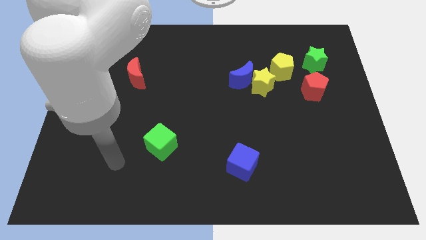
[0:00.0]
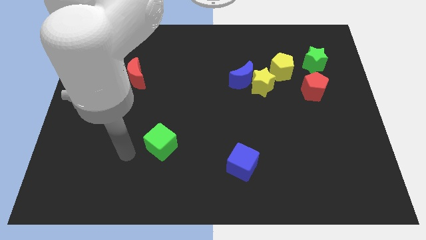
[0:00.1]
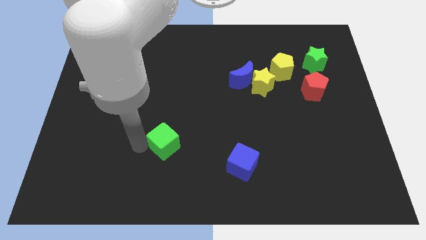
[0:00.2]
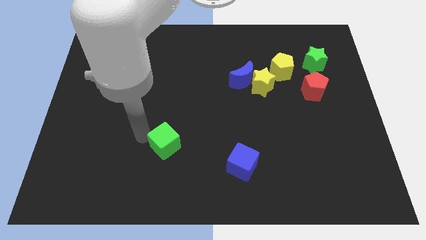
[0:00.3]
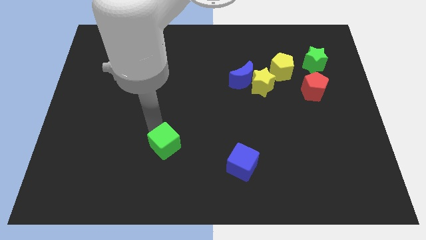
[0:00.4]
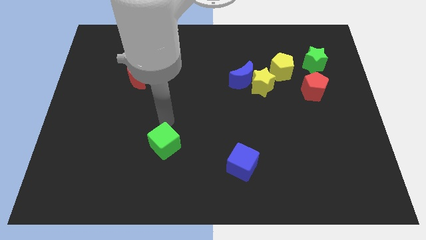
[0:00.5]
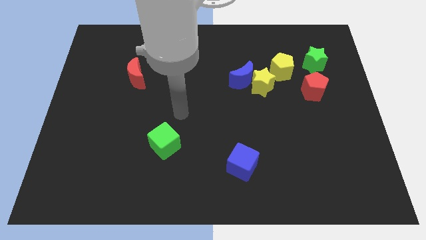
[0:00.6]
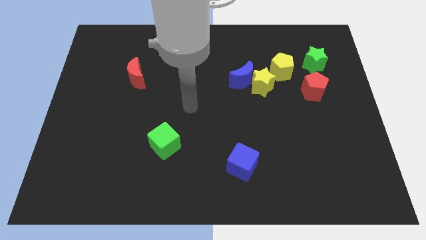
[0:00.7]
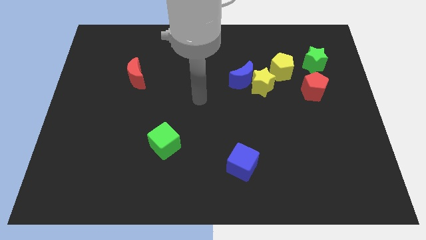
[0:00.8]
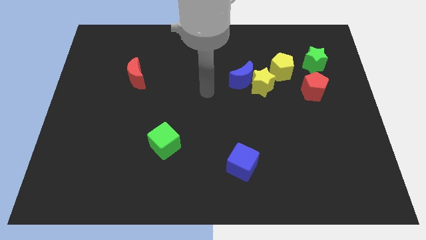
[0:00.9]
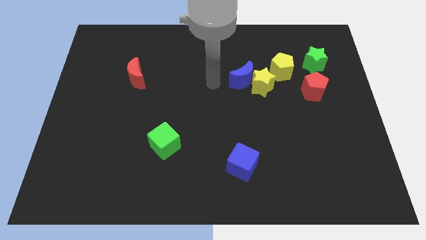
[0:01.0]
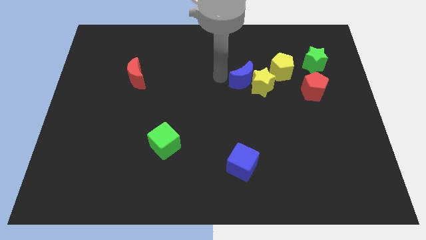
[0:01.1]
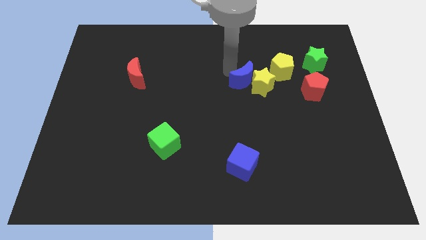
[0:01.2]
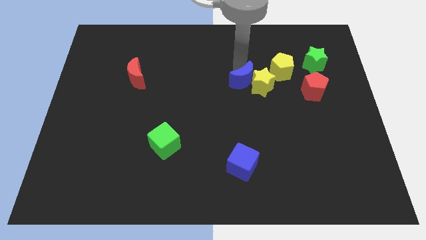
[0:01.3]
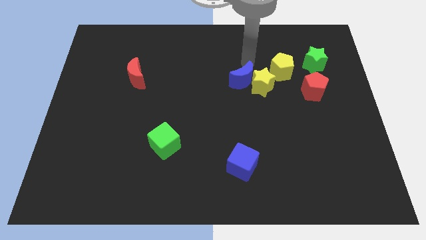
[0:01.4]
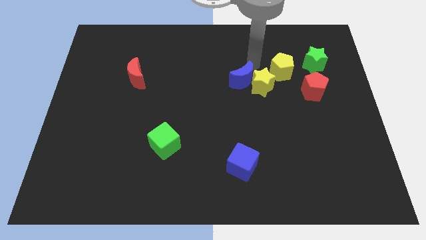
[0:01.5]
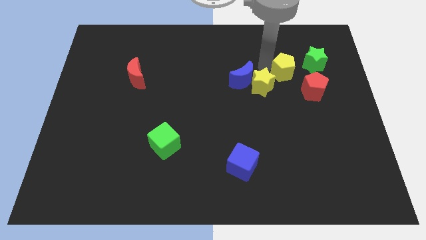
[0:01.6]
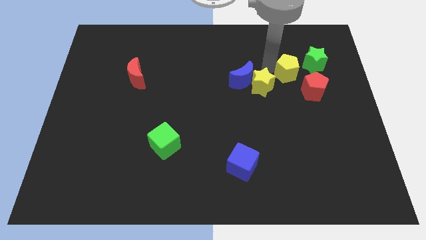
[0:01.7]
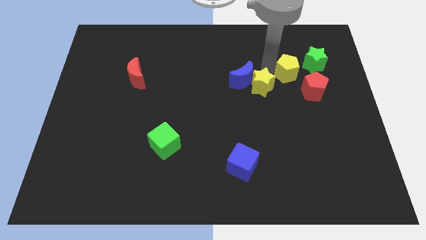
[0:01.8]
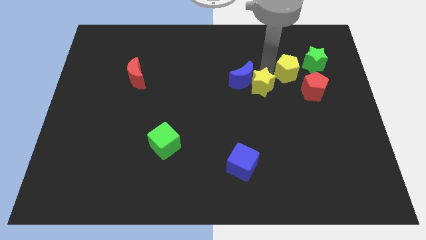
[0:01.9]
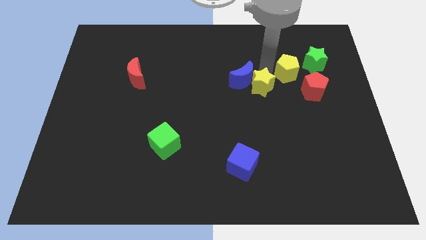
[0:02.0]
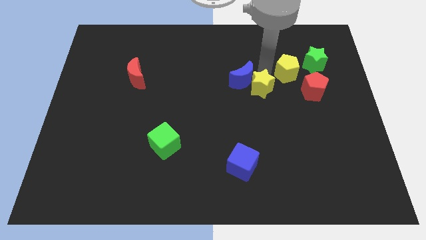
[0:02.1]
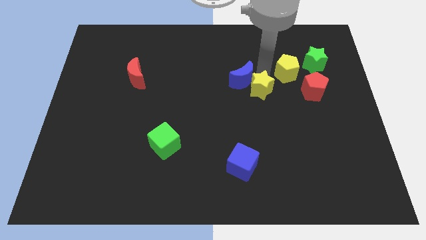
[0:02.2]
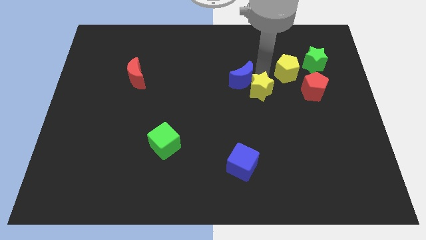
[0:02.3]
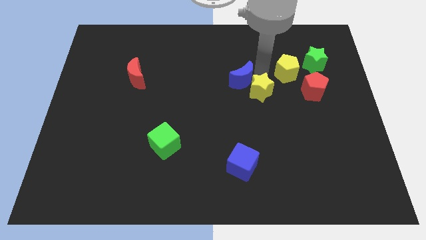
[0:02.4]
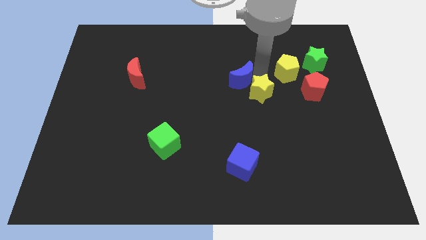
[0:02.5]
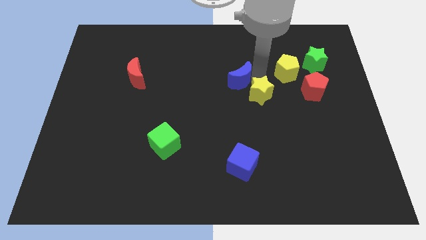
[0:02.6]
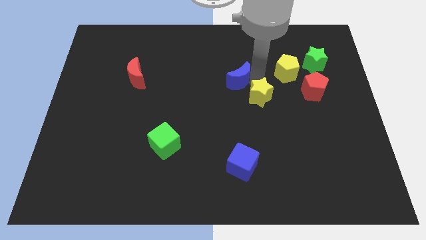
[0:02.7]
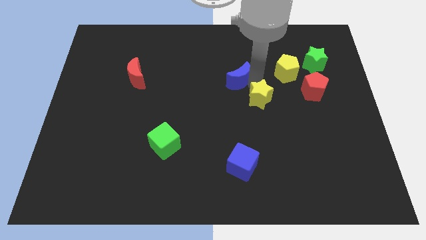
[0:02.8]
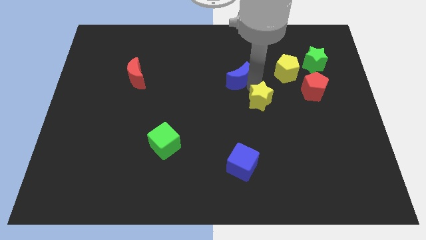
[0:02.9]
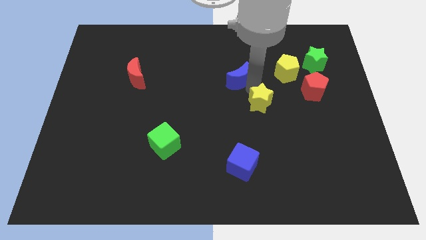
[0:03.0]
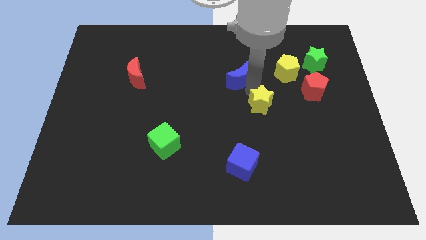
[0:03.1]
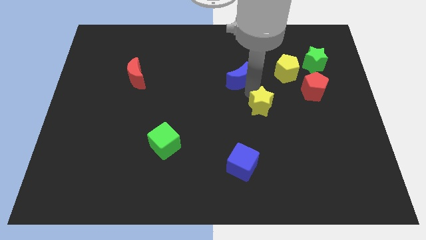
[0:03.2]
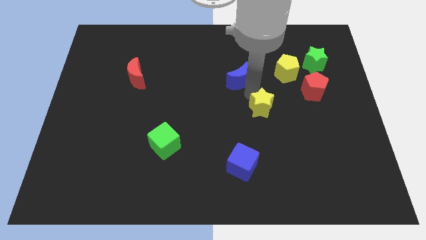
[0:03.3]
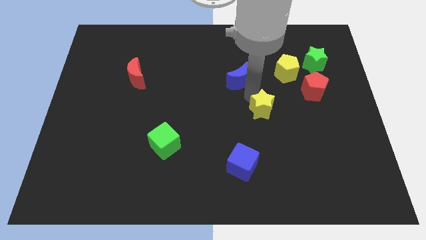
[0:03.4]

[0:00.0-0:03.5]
separate the yellow star from the blue moon and yellow pentagon

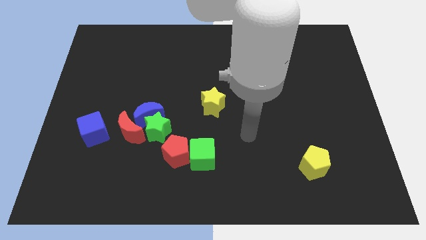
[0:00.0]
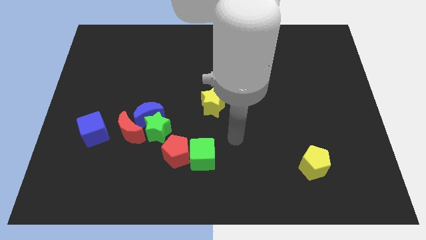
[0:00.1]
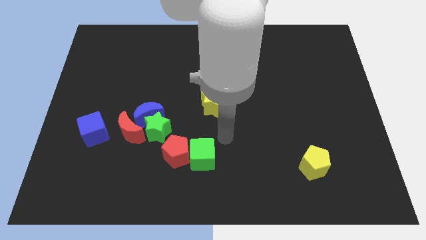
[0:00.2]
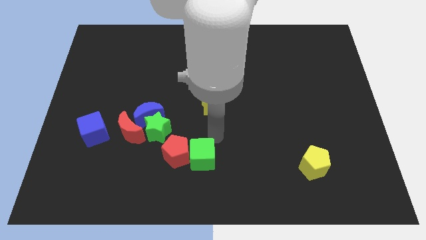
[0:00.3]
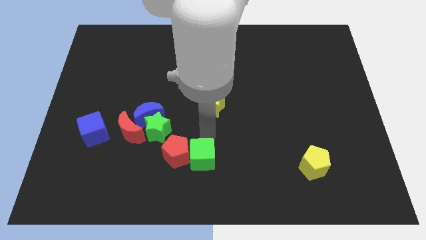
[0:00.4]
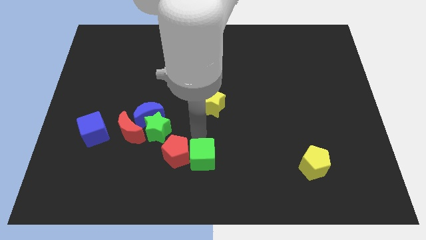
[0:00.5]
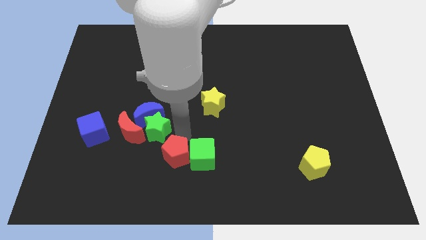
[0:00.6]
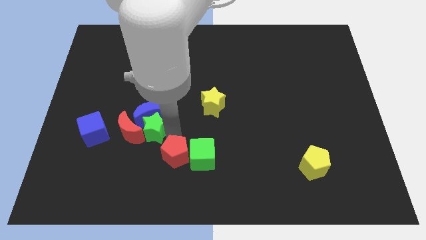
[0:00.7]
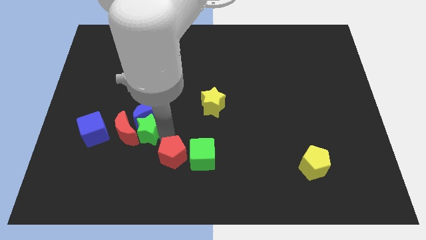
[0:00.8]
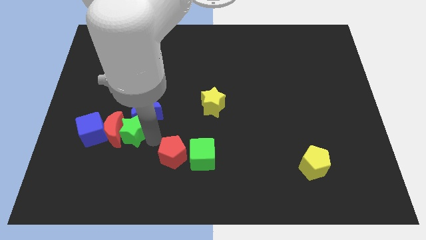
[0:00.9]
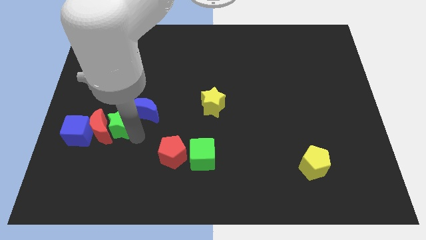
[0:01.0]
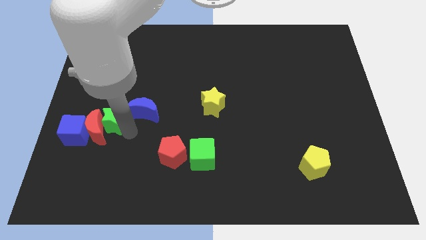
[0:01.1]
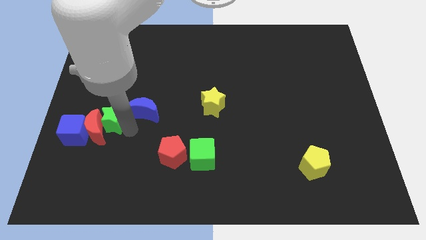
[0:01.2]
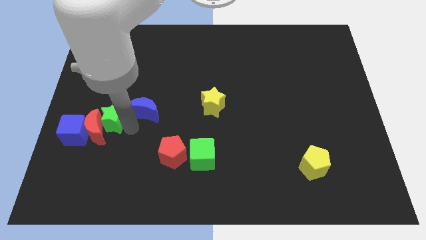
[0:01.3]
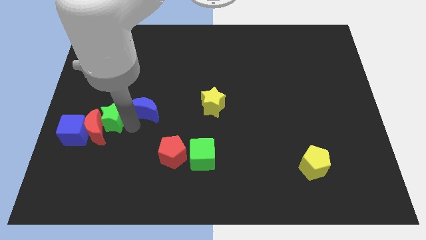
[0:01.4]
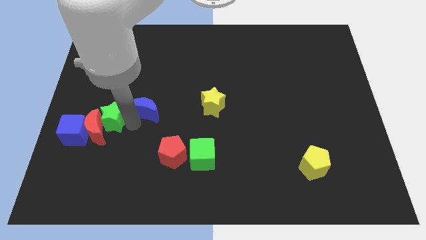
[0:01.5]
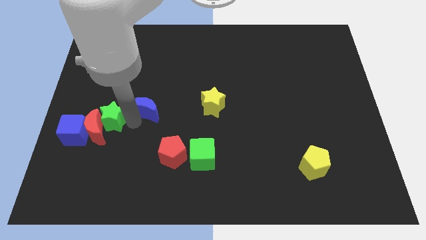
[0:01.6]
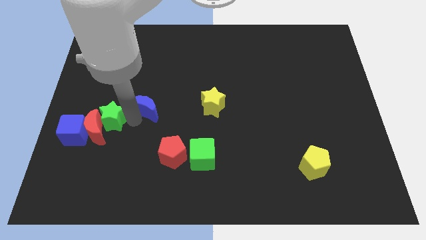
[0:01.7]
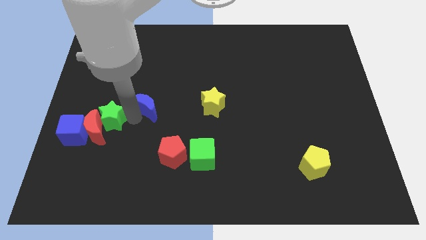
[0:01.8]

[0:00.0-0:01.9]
pull the blue moon apart from the green star and red moon

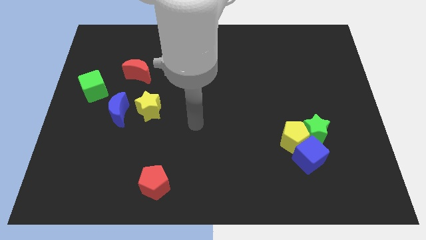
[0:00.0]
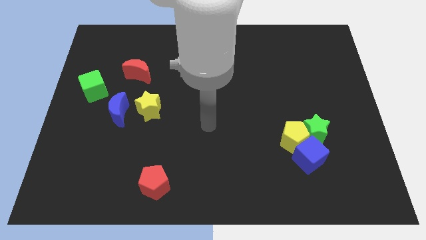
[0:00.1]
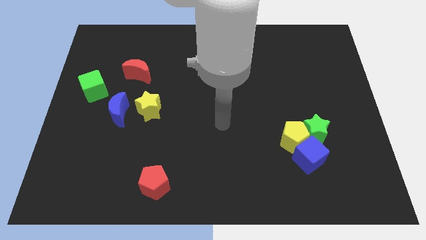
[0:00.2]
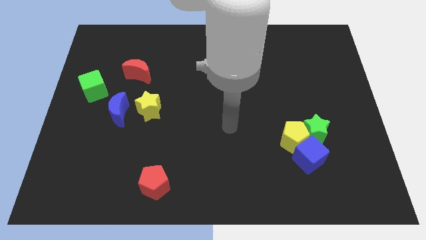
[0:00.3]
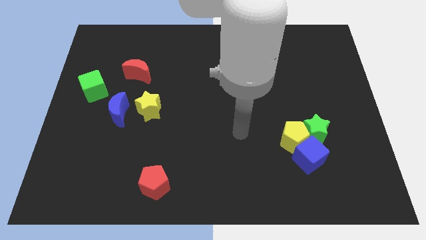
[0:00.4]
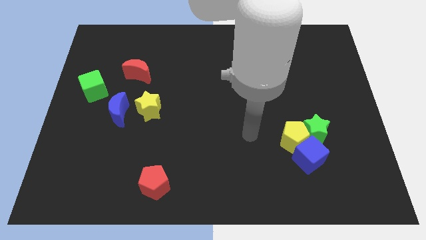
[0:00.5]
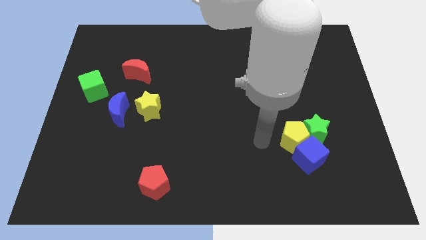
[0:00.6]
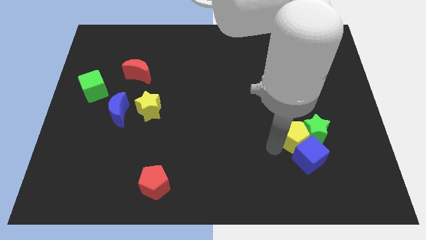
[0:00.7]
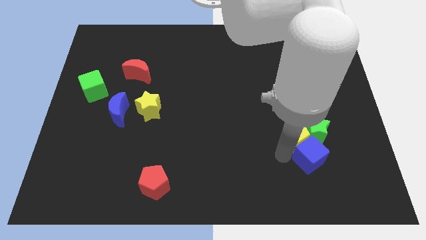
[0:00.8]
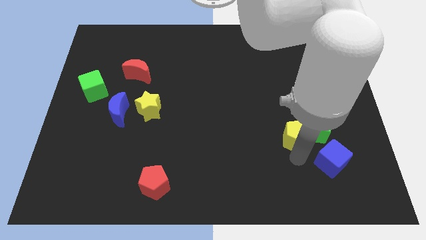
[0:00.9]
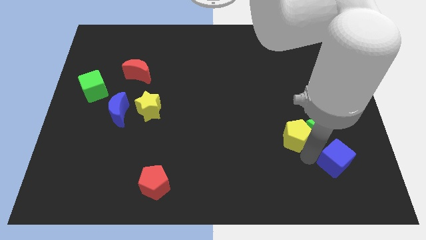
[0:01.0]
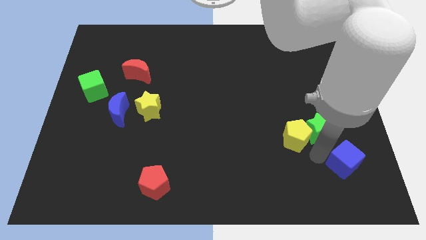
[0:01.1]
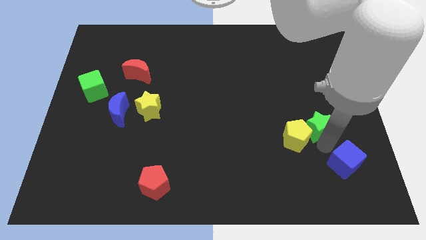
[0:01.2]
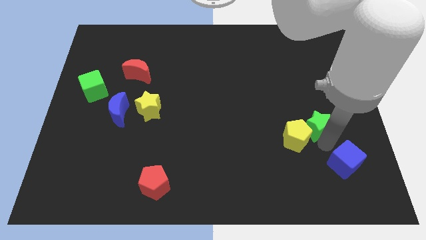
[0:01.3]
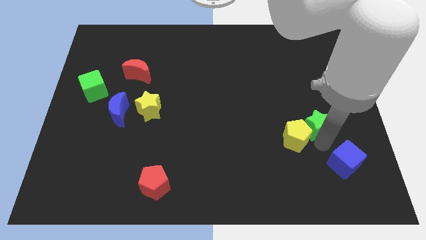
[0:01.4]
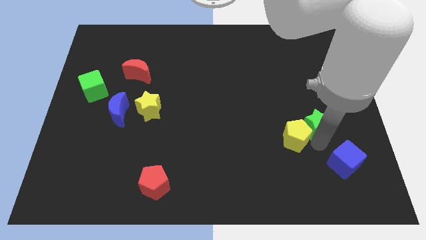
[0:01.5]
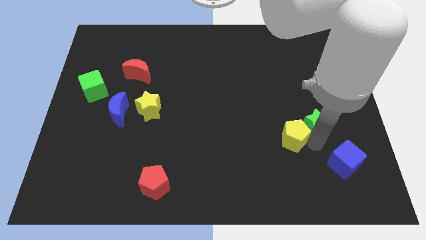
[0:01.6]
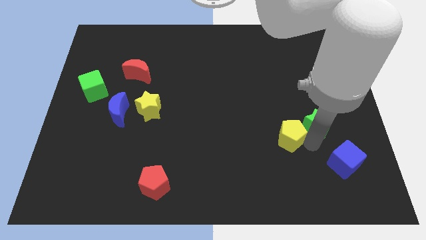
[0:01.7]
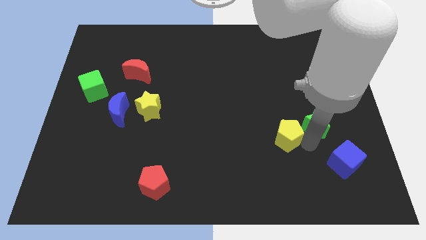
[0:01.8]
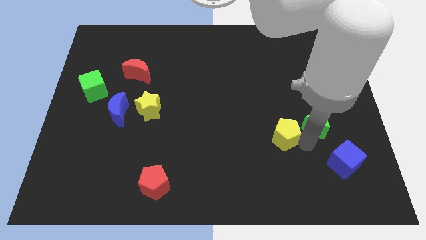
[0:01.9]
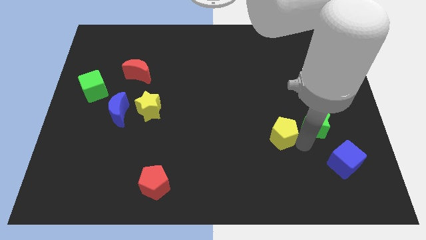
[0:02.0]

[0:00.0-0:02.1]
separate the yellow pentagon from the green star and blue cube

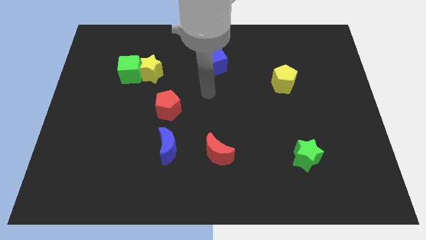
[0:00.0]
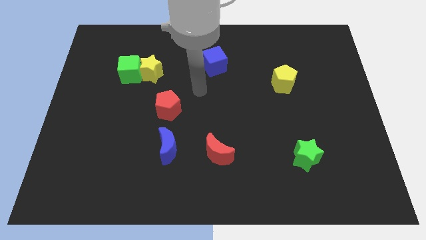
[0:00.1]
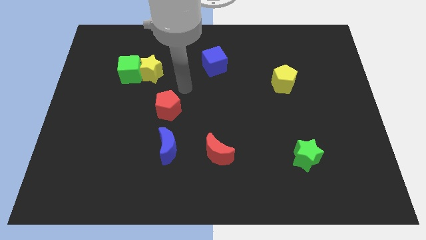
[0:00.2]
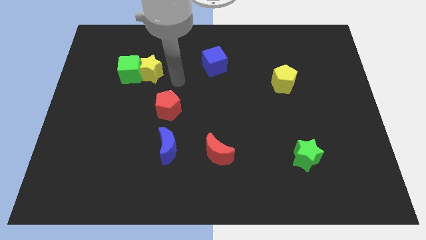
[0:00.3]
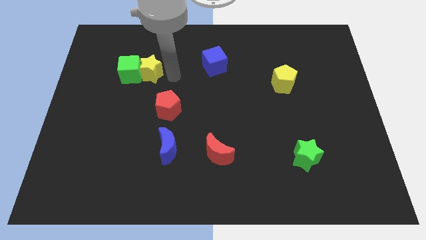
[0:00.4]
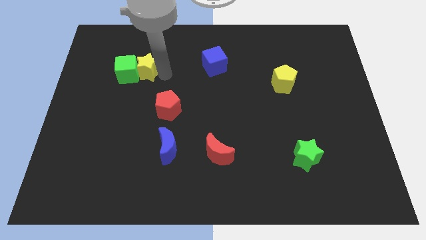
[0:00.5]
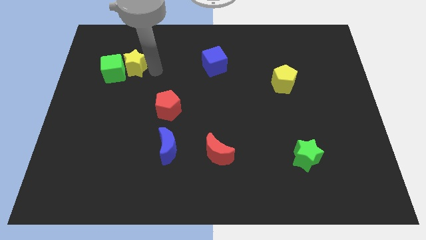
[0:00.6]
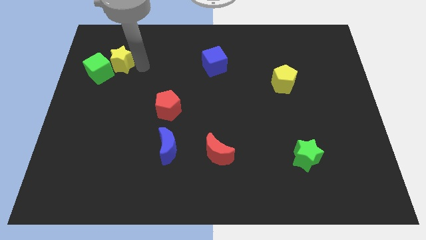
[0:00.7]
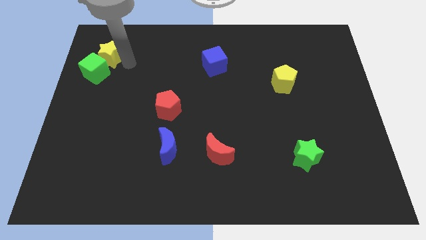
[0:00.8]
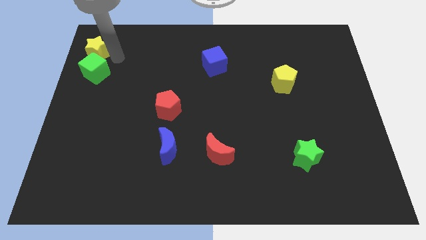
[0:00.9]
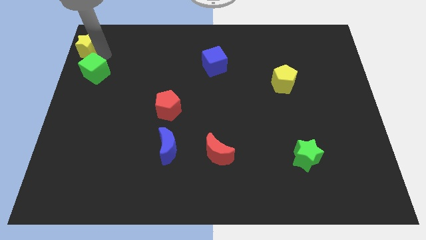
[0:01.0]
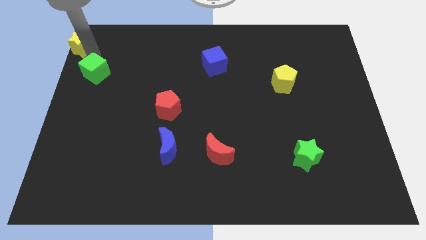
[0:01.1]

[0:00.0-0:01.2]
move the green cube away from the yellow star

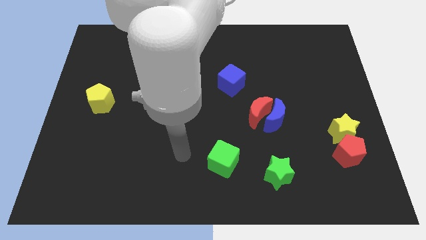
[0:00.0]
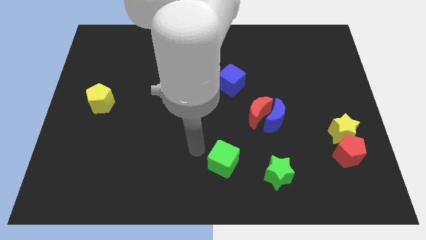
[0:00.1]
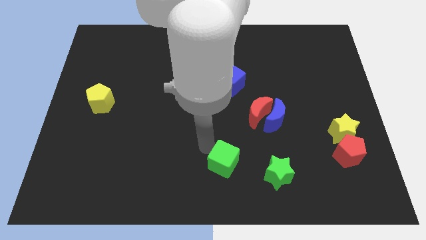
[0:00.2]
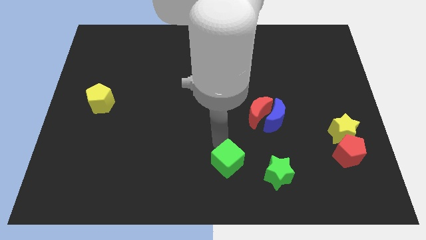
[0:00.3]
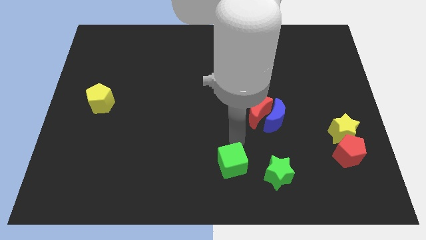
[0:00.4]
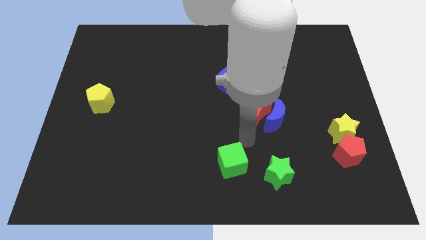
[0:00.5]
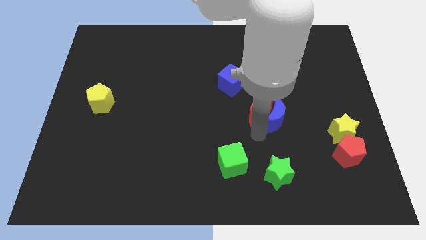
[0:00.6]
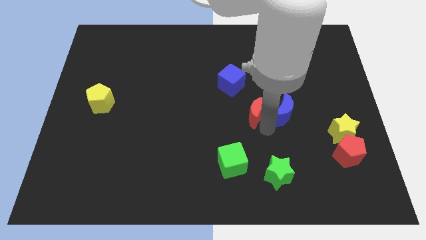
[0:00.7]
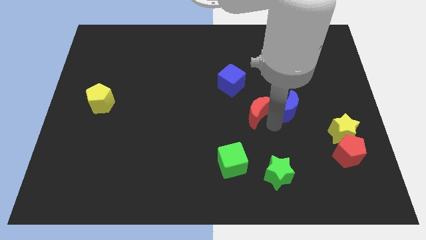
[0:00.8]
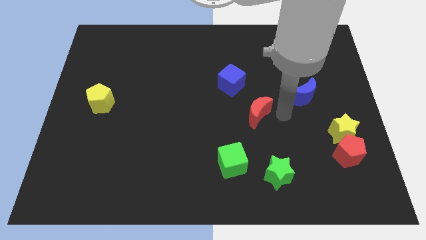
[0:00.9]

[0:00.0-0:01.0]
pull the red moon apart from the blue moon
